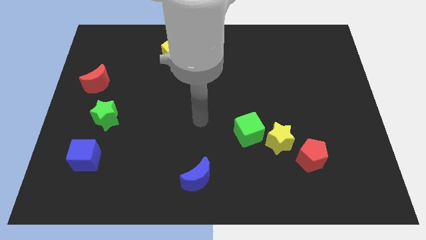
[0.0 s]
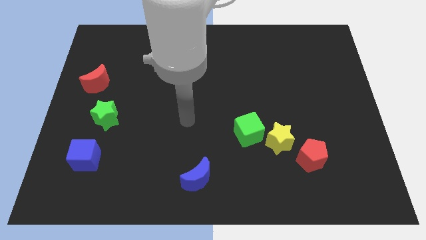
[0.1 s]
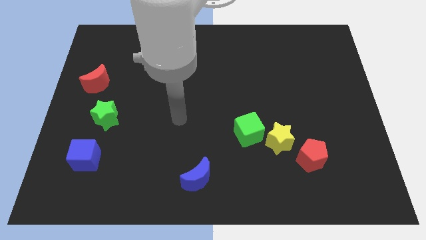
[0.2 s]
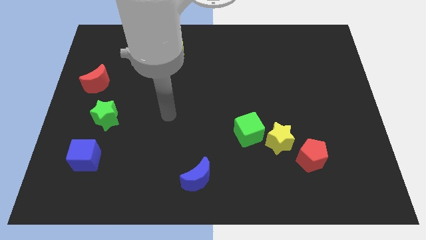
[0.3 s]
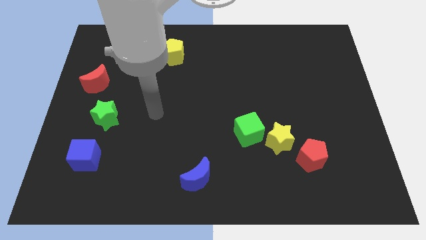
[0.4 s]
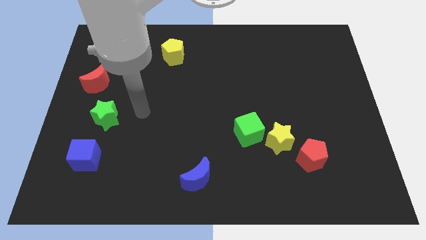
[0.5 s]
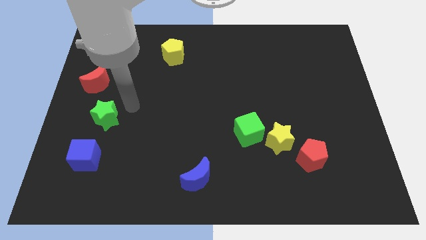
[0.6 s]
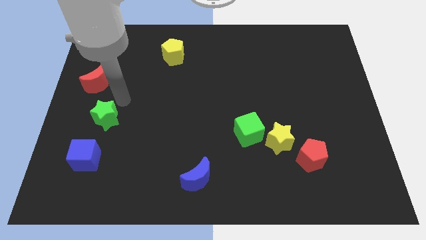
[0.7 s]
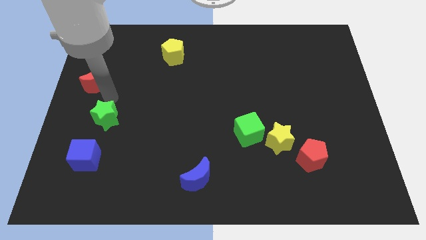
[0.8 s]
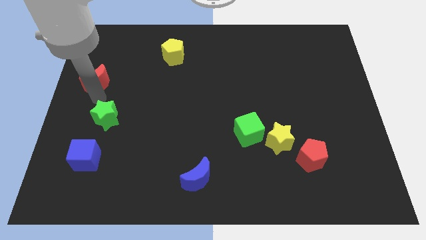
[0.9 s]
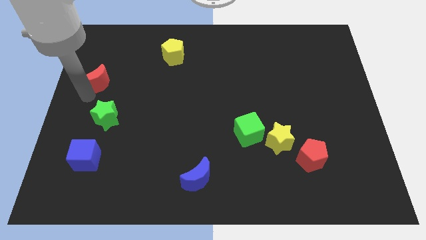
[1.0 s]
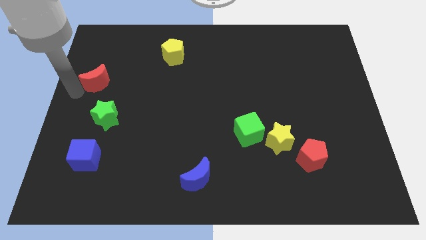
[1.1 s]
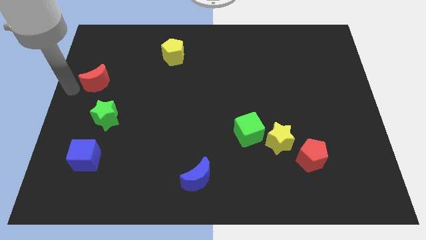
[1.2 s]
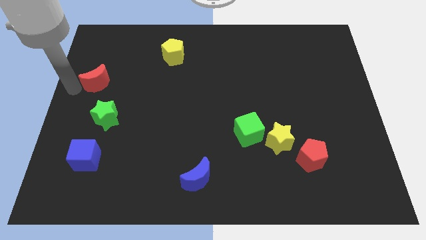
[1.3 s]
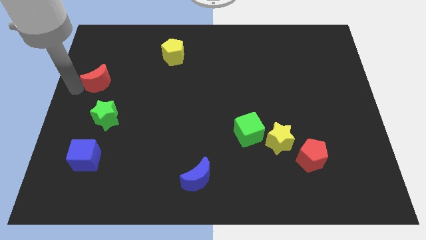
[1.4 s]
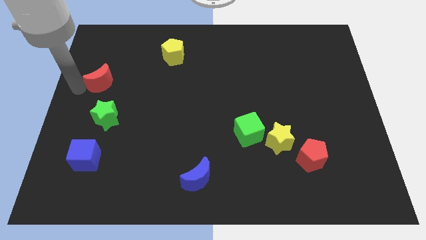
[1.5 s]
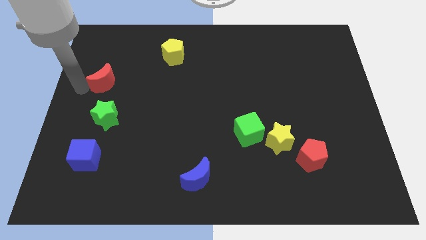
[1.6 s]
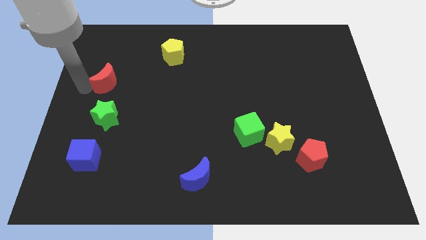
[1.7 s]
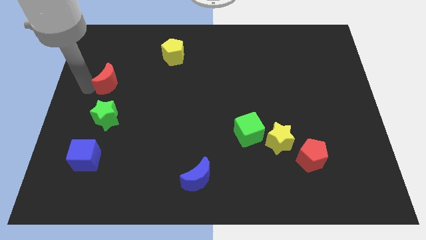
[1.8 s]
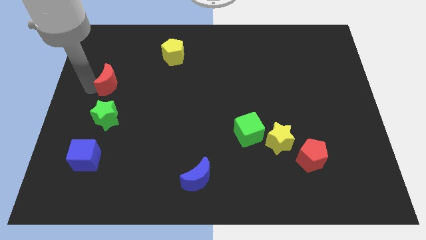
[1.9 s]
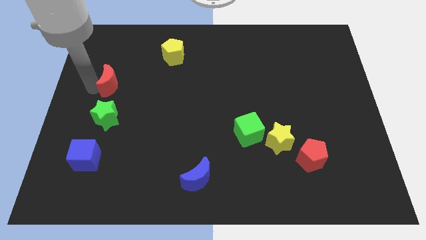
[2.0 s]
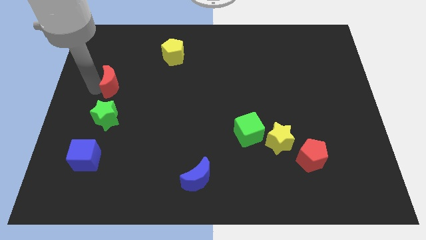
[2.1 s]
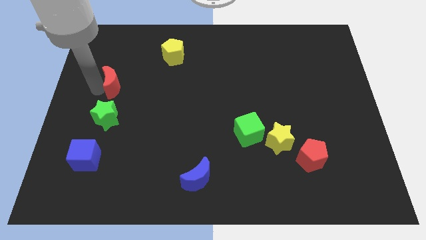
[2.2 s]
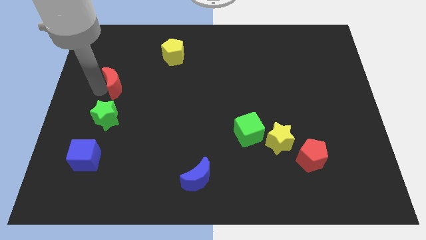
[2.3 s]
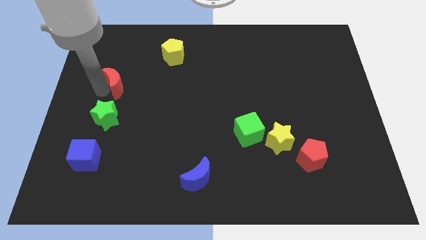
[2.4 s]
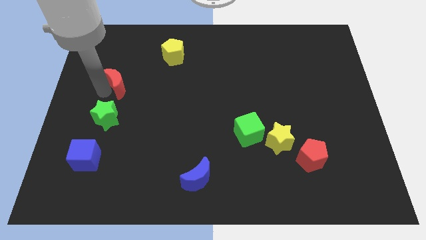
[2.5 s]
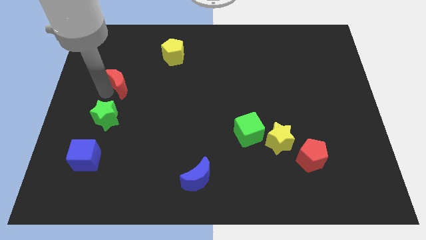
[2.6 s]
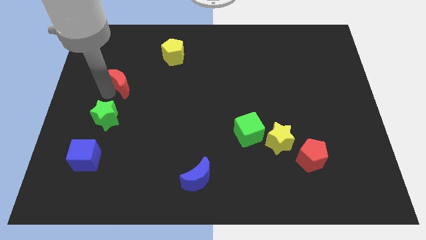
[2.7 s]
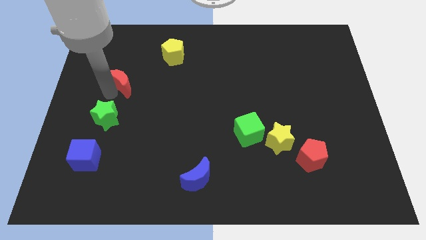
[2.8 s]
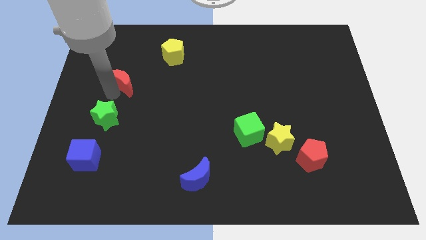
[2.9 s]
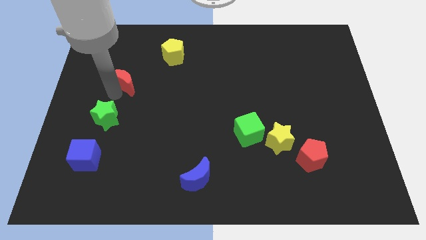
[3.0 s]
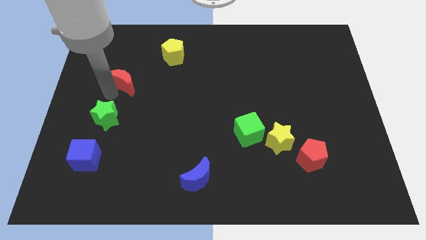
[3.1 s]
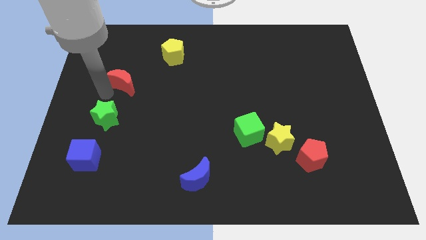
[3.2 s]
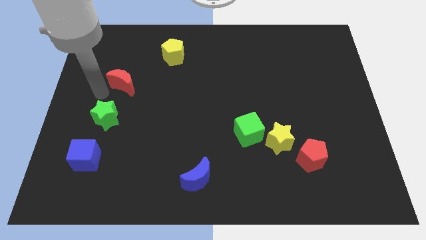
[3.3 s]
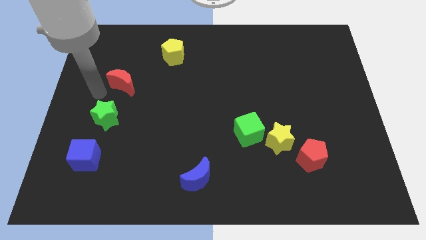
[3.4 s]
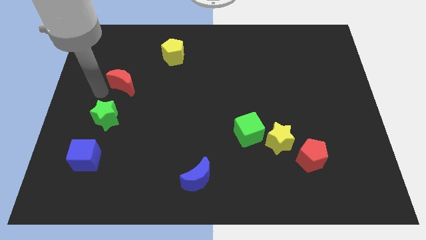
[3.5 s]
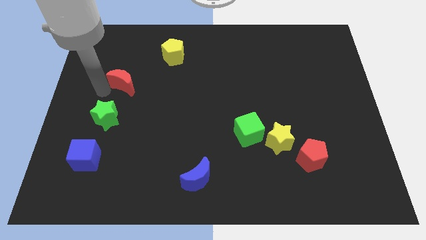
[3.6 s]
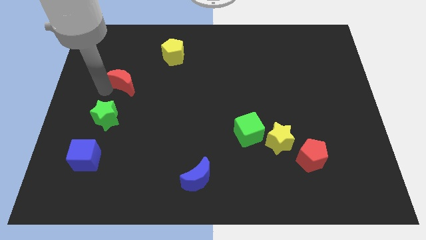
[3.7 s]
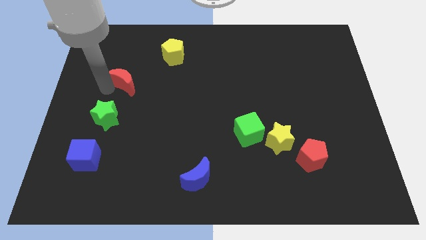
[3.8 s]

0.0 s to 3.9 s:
push the red moon slightly to the right

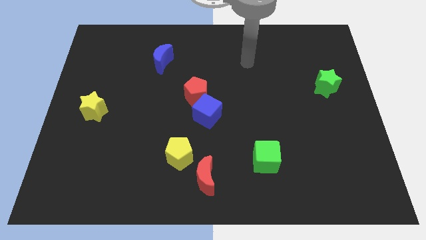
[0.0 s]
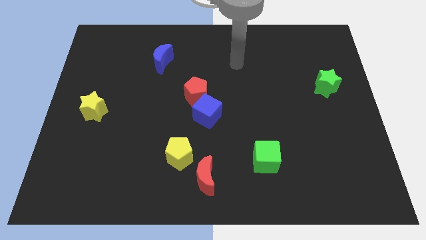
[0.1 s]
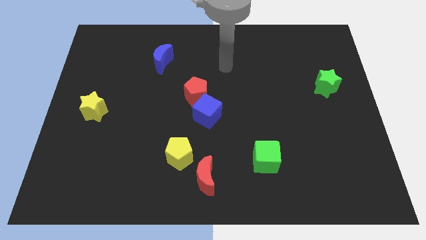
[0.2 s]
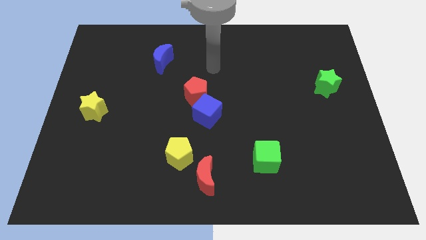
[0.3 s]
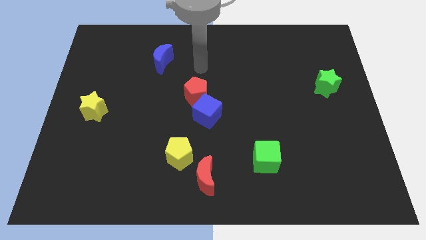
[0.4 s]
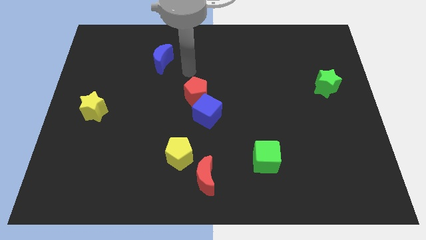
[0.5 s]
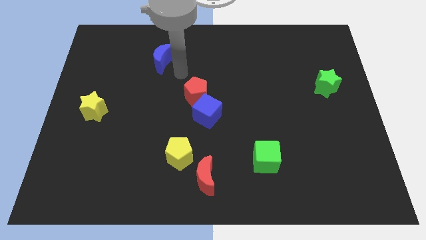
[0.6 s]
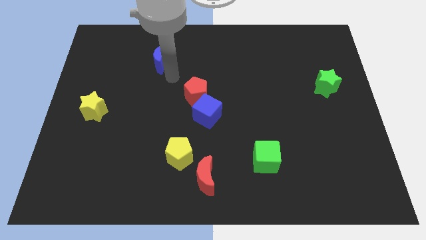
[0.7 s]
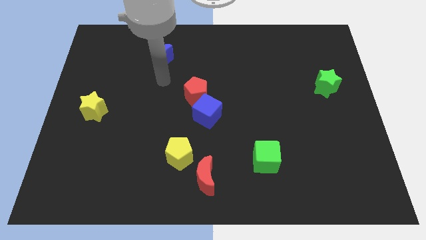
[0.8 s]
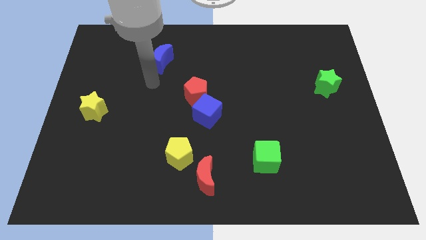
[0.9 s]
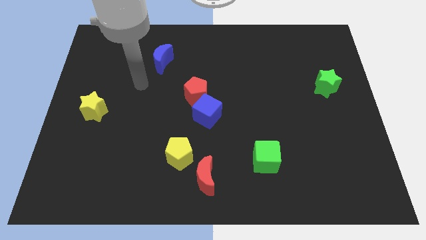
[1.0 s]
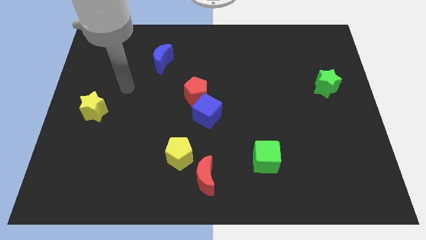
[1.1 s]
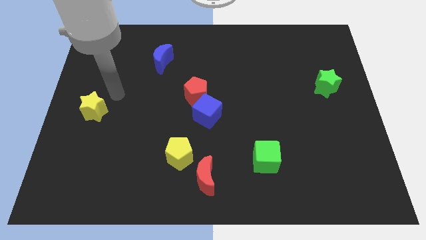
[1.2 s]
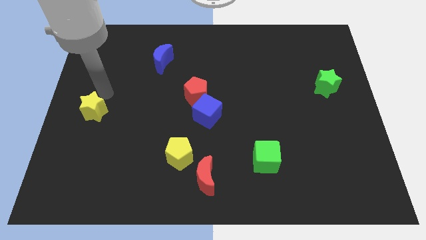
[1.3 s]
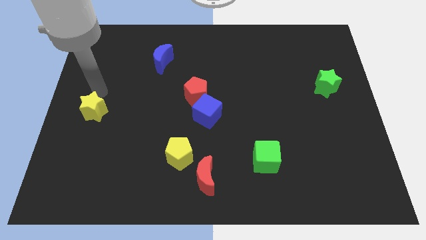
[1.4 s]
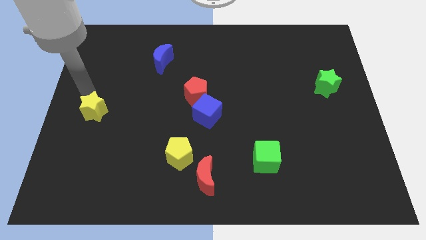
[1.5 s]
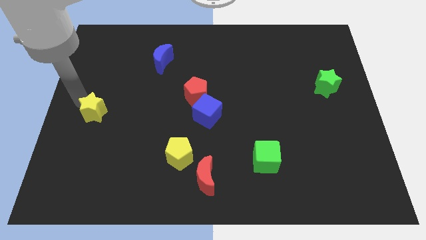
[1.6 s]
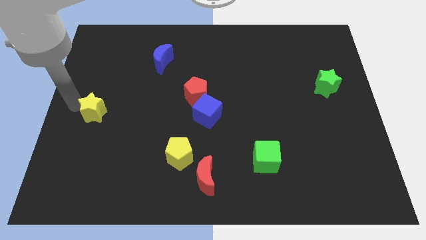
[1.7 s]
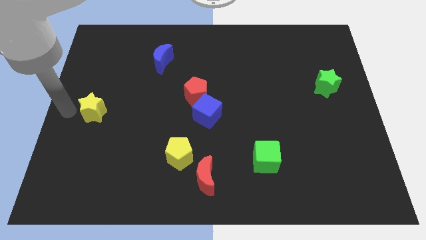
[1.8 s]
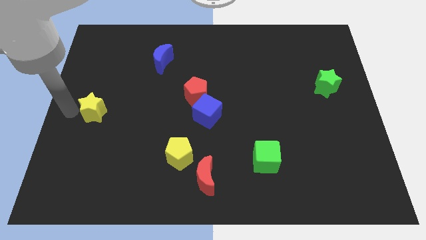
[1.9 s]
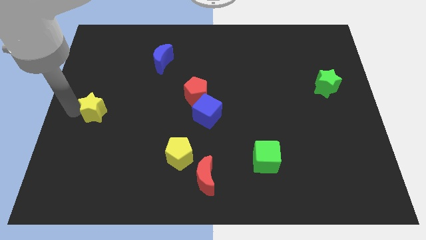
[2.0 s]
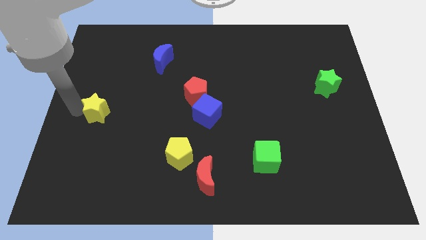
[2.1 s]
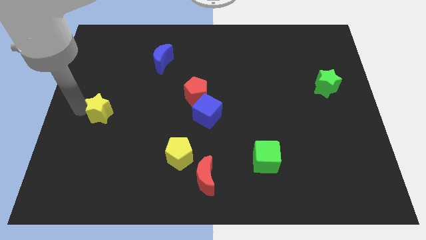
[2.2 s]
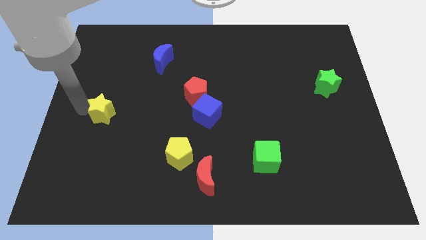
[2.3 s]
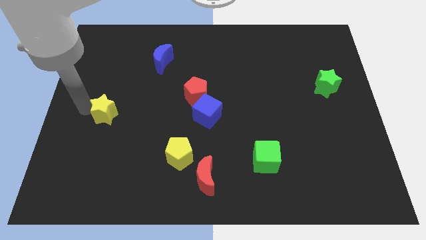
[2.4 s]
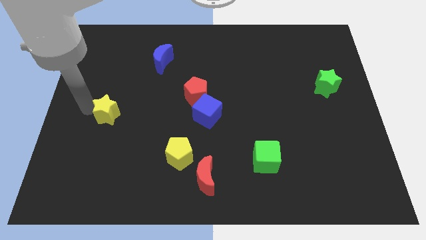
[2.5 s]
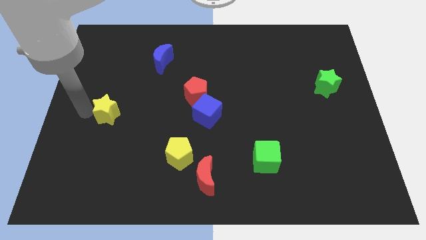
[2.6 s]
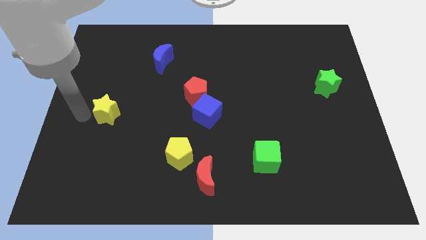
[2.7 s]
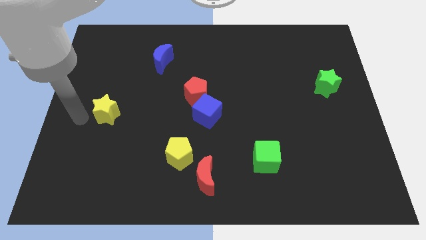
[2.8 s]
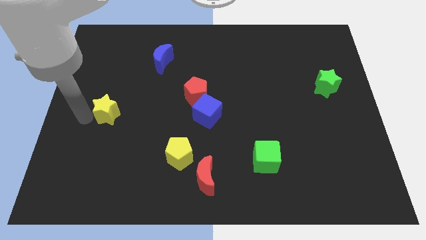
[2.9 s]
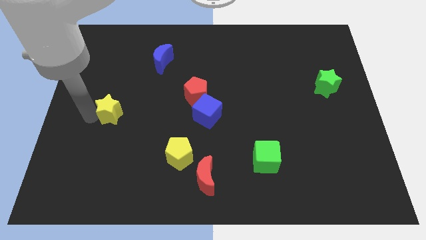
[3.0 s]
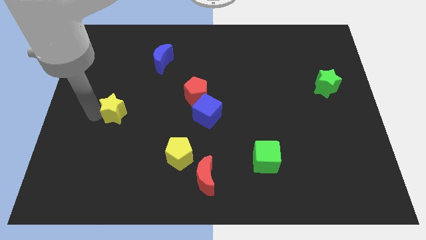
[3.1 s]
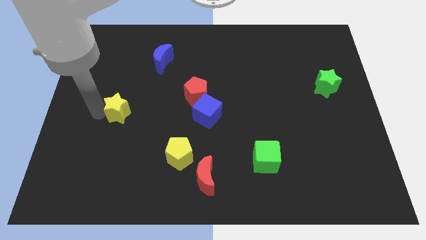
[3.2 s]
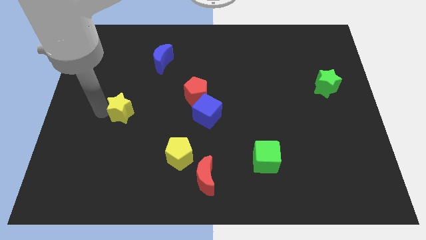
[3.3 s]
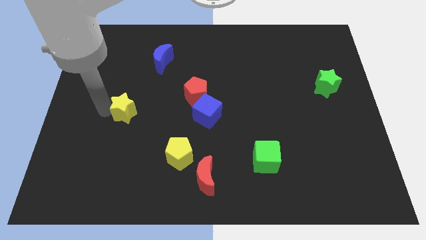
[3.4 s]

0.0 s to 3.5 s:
slightly move the yellow star right

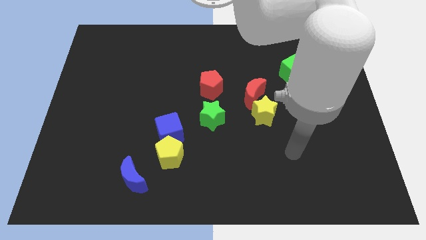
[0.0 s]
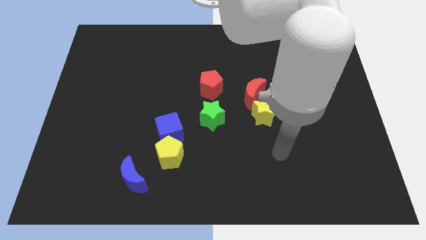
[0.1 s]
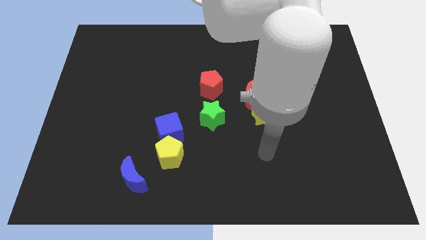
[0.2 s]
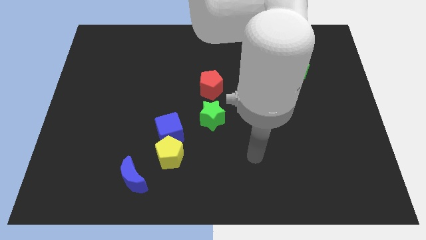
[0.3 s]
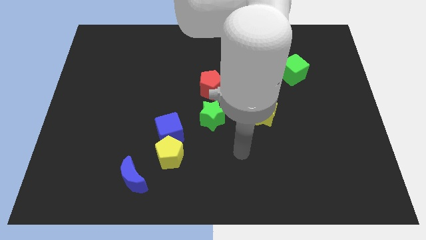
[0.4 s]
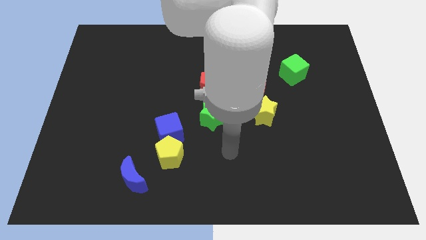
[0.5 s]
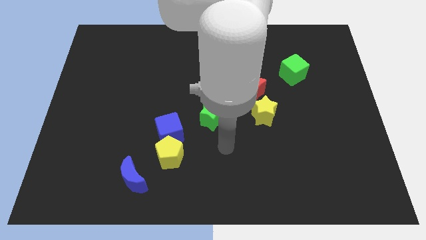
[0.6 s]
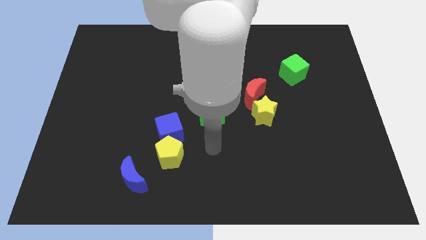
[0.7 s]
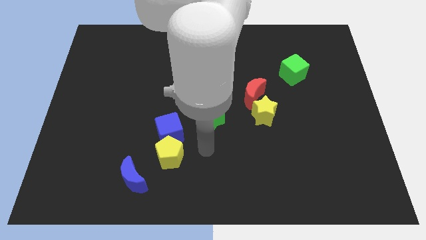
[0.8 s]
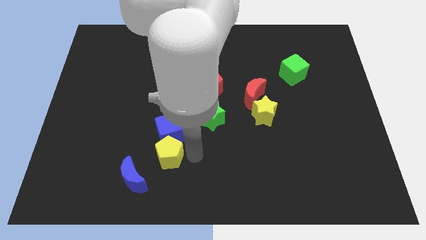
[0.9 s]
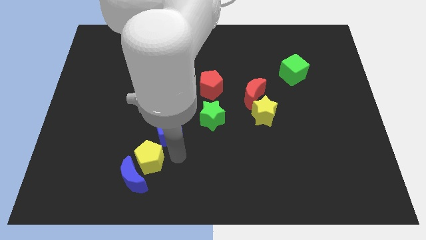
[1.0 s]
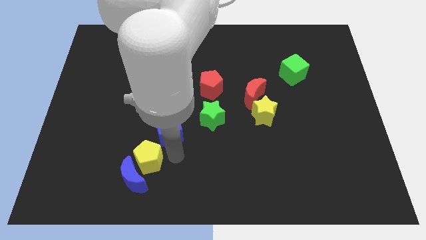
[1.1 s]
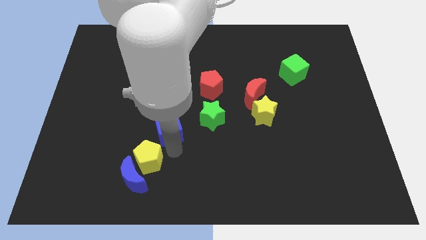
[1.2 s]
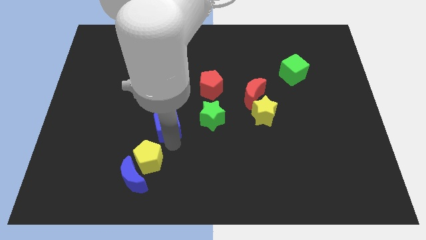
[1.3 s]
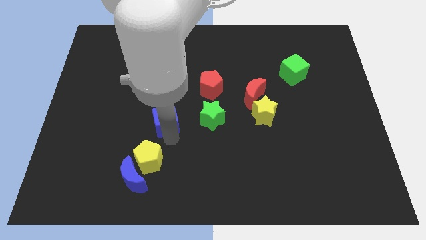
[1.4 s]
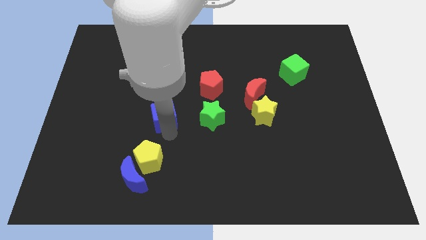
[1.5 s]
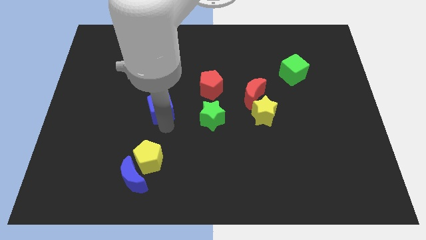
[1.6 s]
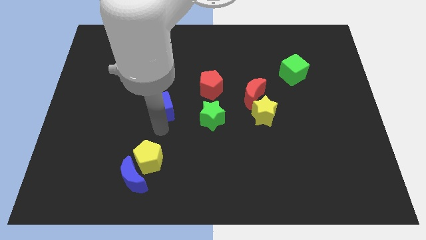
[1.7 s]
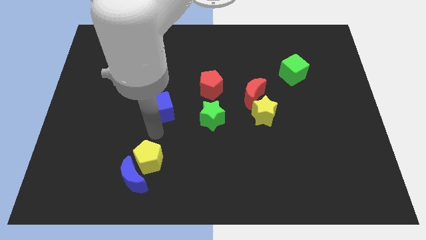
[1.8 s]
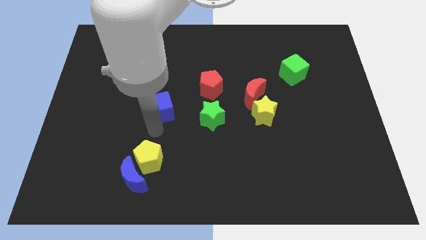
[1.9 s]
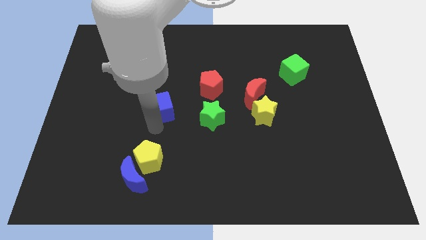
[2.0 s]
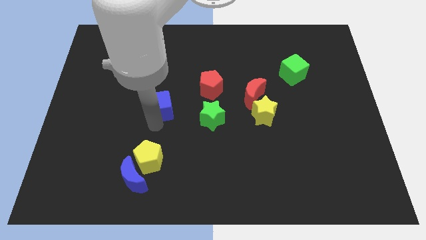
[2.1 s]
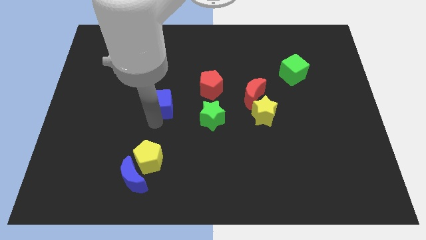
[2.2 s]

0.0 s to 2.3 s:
slightly slide the blue cube up
